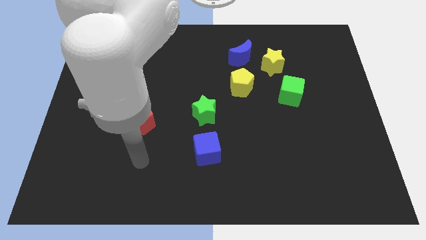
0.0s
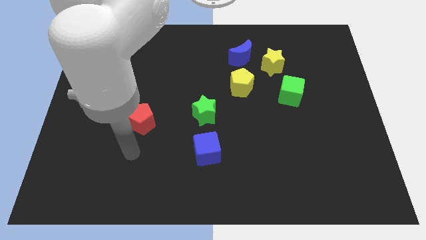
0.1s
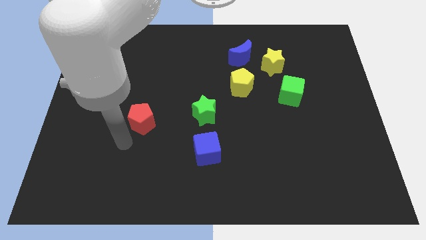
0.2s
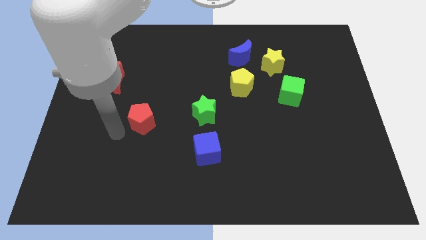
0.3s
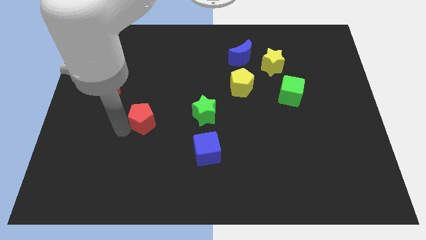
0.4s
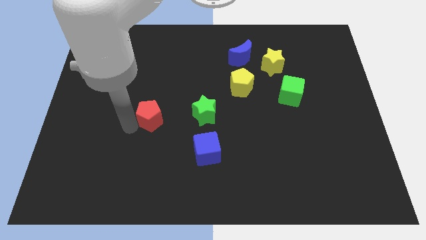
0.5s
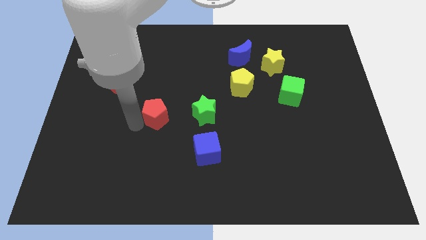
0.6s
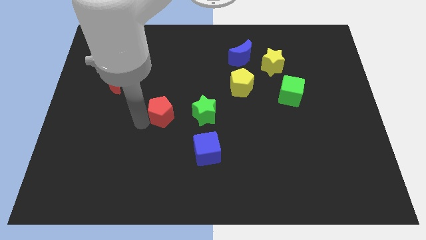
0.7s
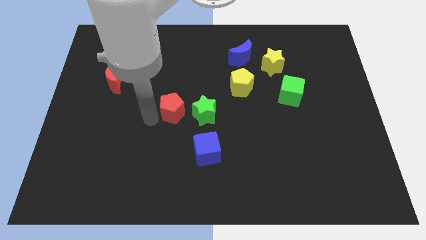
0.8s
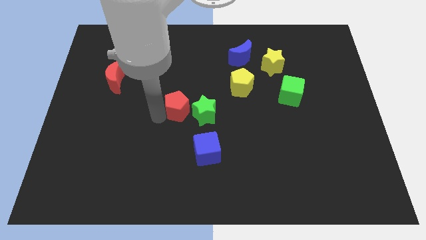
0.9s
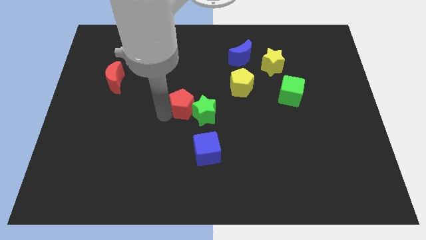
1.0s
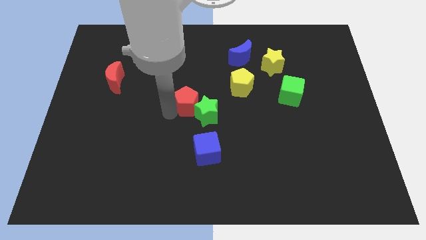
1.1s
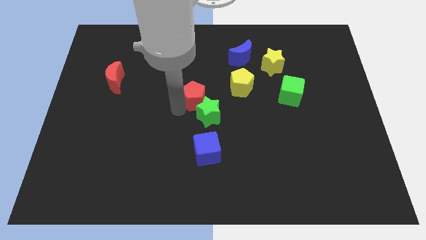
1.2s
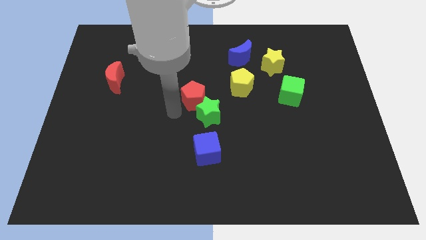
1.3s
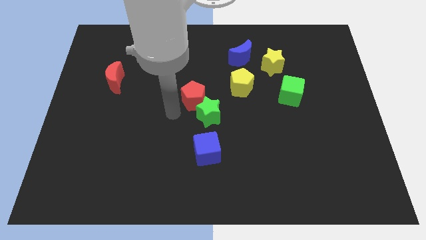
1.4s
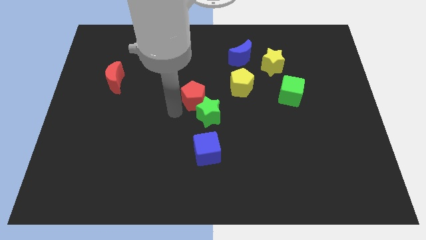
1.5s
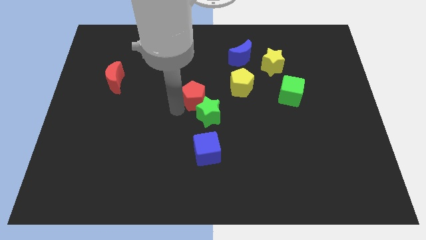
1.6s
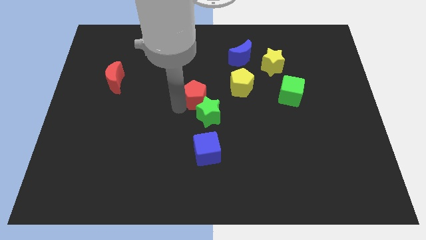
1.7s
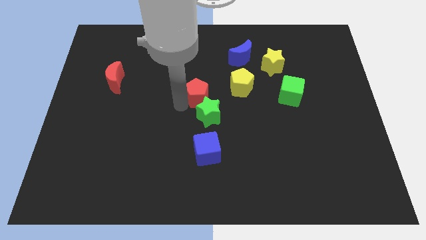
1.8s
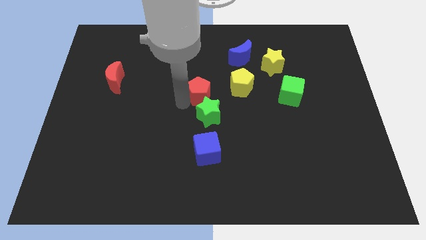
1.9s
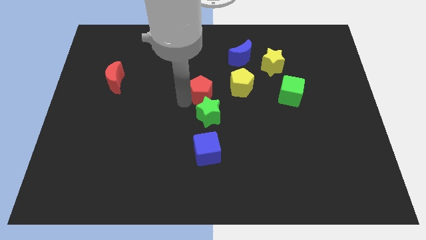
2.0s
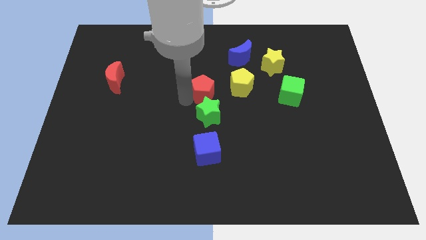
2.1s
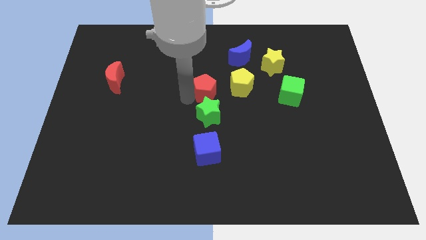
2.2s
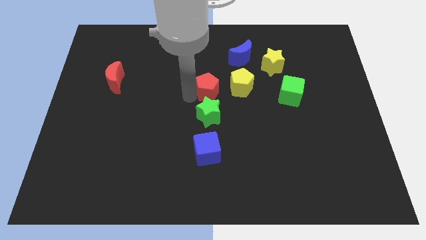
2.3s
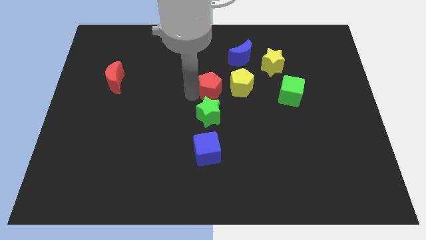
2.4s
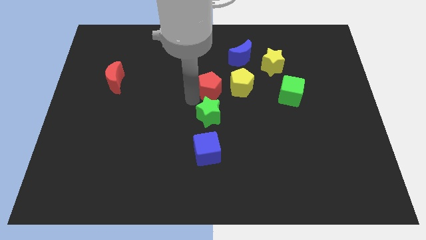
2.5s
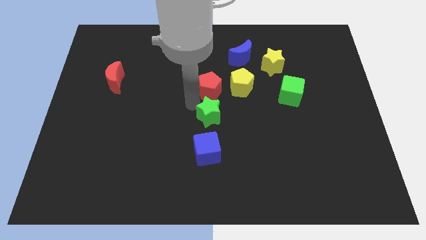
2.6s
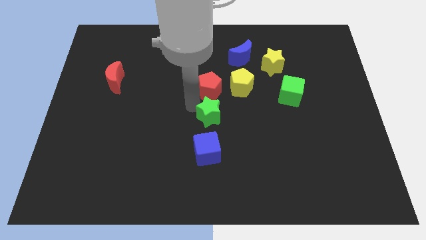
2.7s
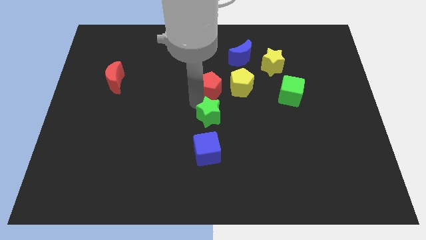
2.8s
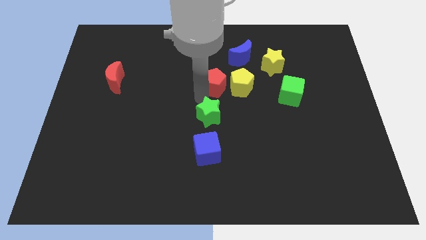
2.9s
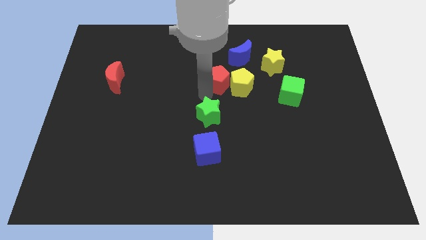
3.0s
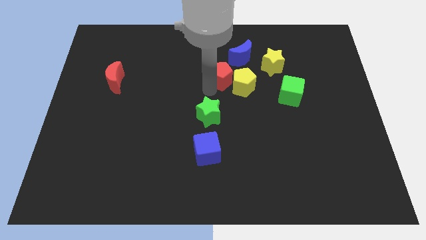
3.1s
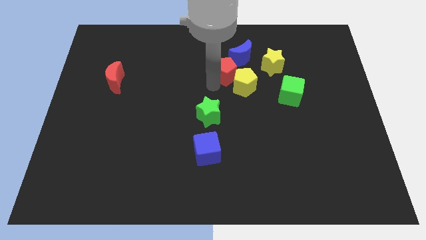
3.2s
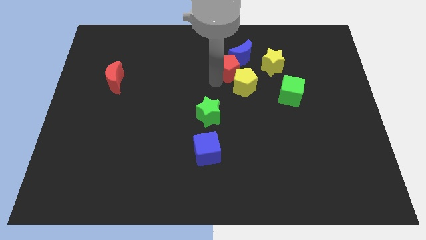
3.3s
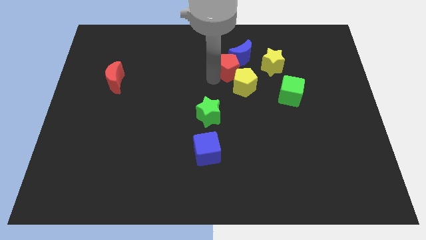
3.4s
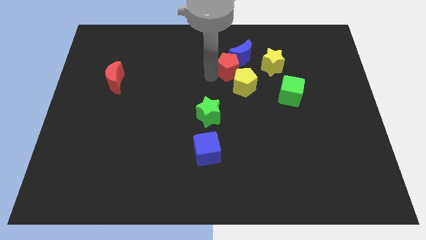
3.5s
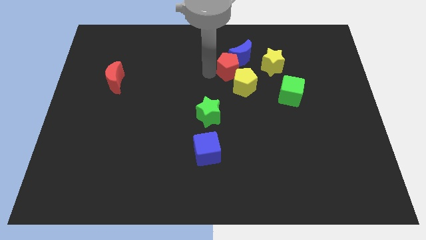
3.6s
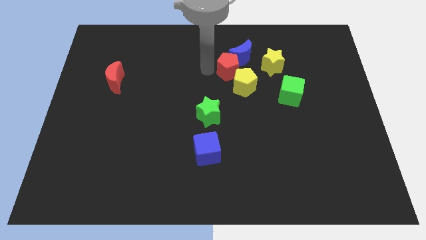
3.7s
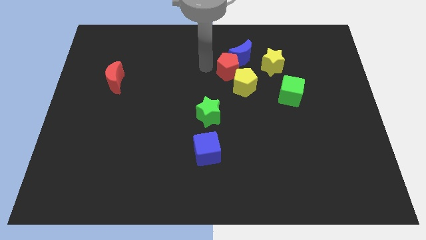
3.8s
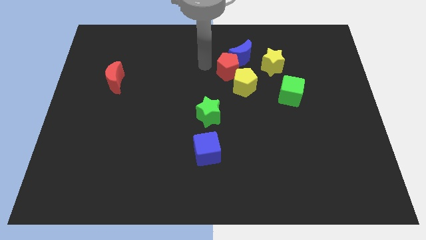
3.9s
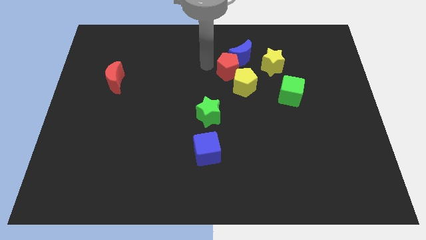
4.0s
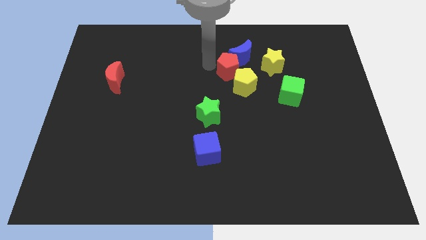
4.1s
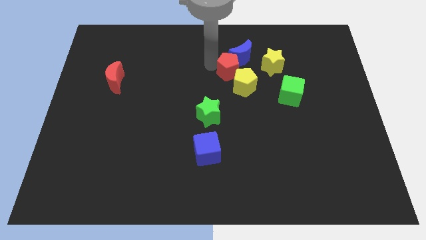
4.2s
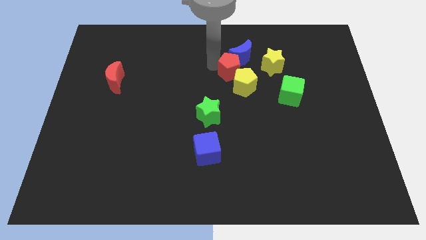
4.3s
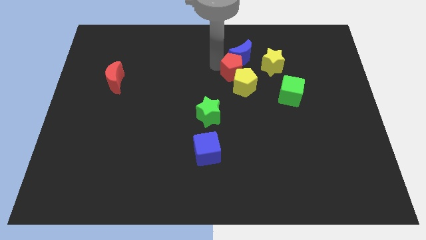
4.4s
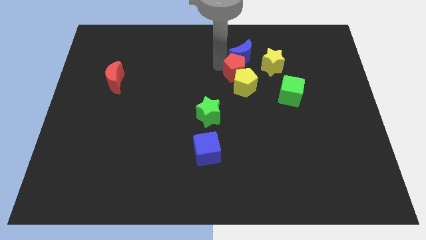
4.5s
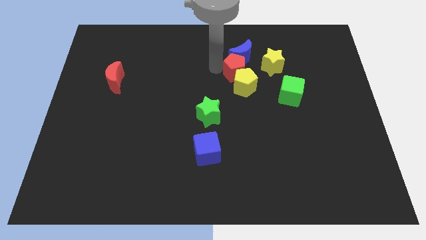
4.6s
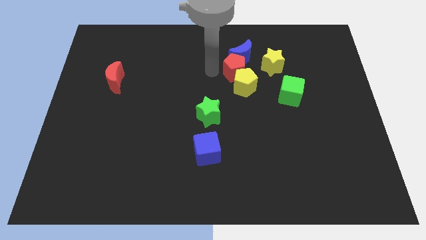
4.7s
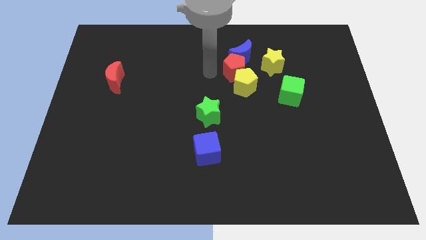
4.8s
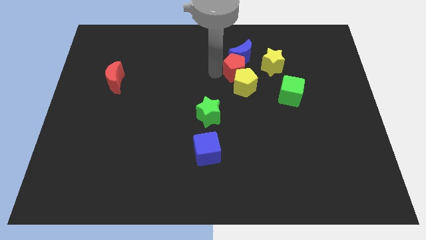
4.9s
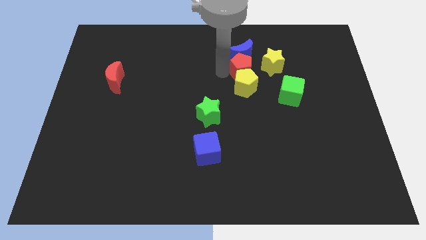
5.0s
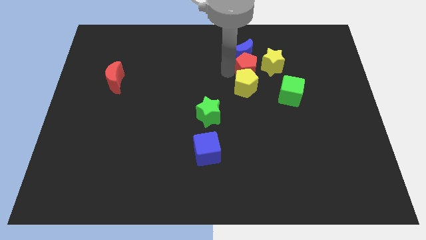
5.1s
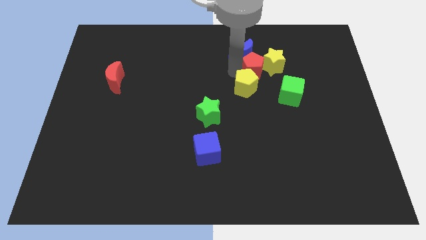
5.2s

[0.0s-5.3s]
put the red pentagon to the yellow star

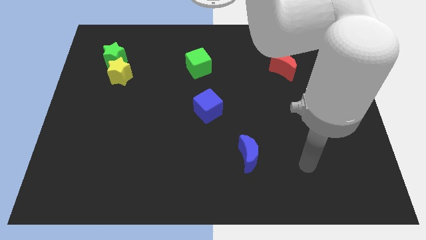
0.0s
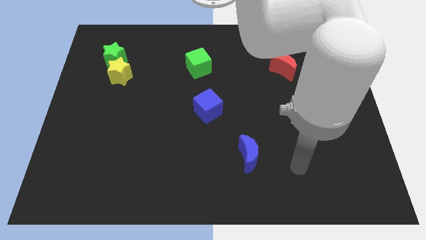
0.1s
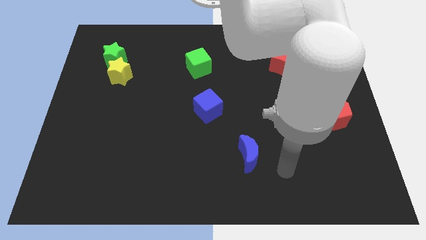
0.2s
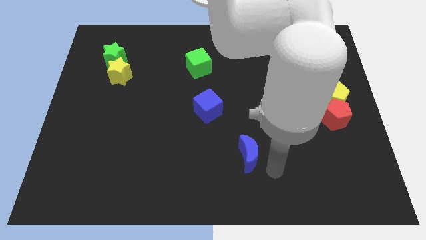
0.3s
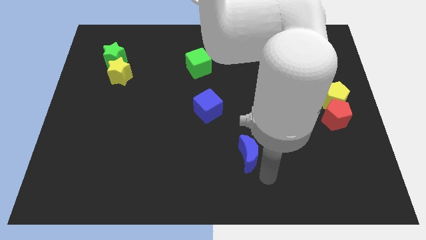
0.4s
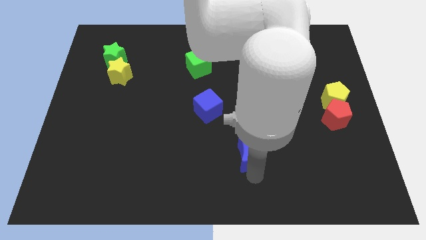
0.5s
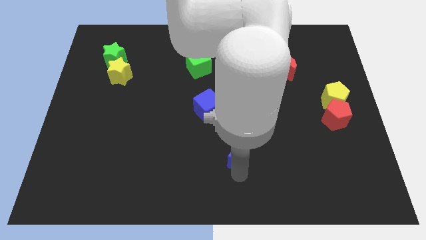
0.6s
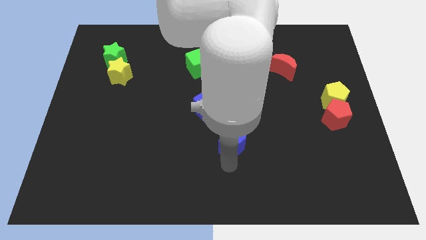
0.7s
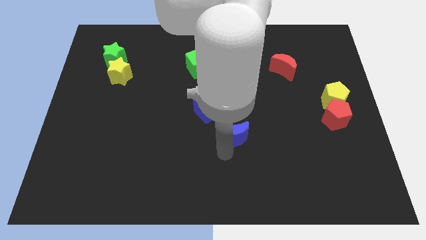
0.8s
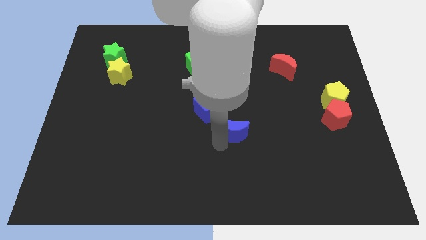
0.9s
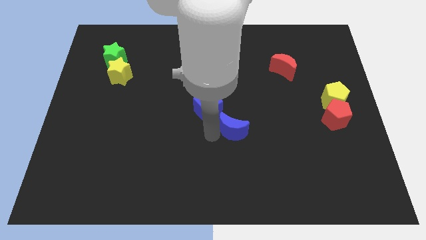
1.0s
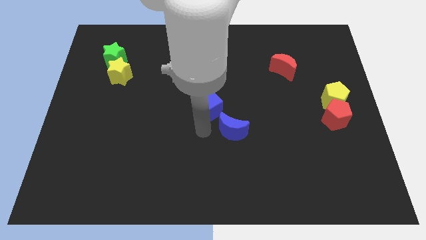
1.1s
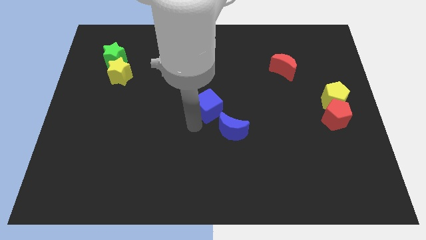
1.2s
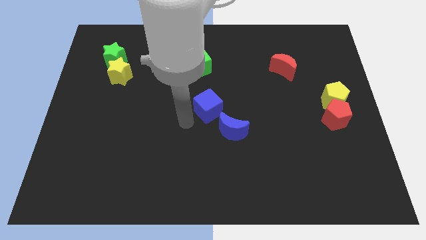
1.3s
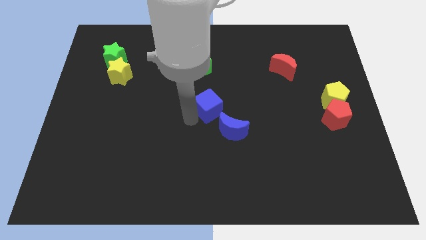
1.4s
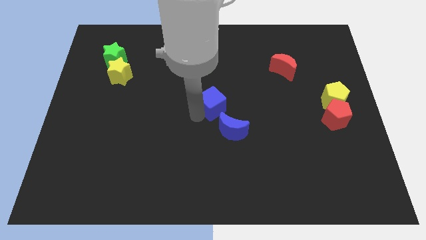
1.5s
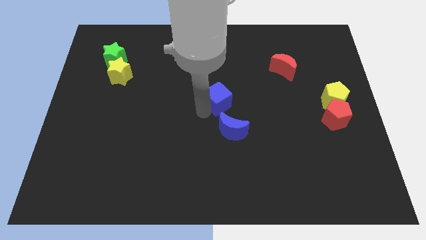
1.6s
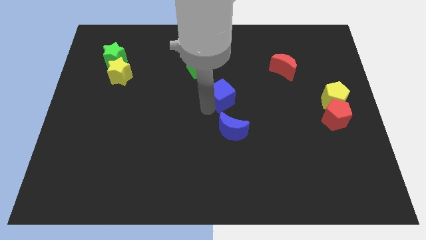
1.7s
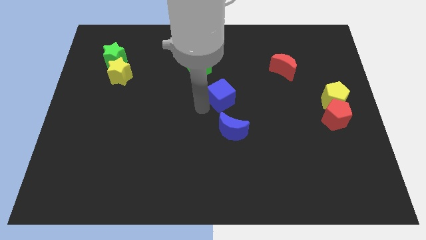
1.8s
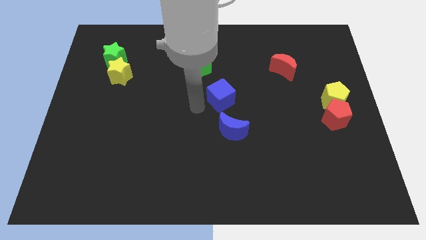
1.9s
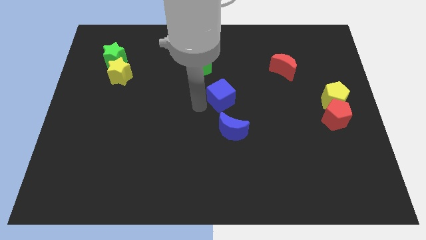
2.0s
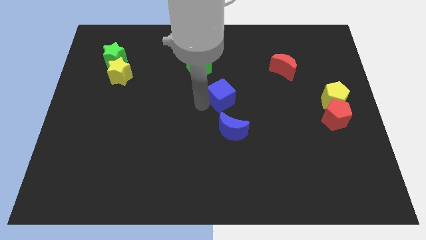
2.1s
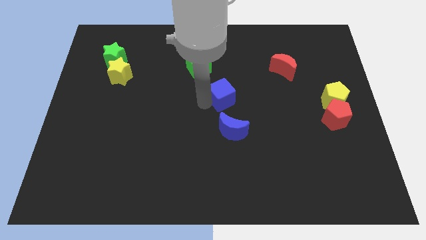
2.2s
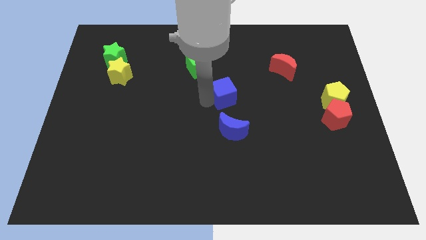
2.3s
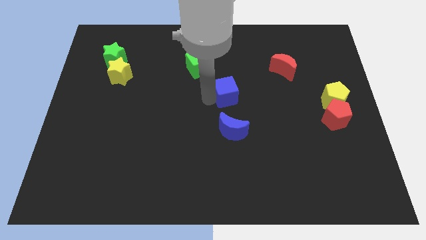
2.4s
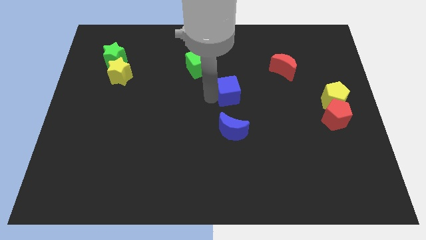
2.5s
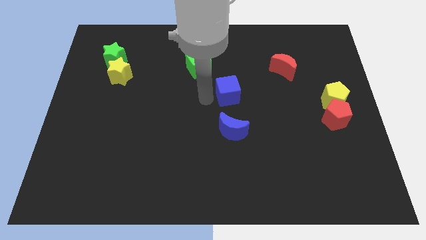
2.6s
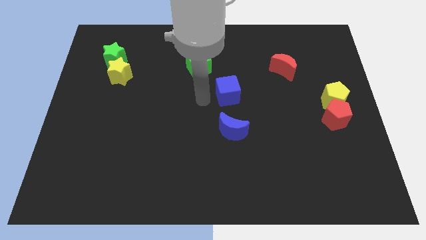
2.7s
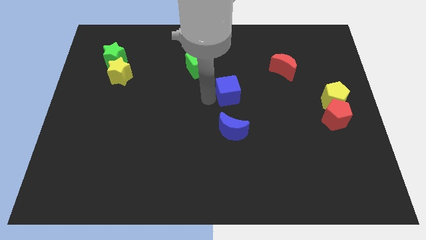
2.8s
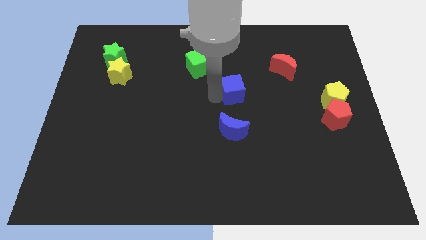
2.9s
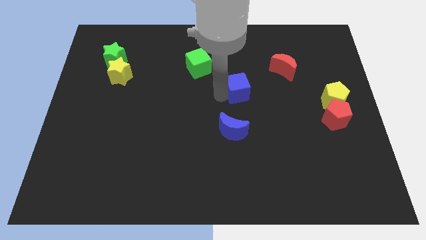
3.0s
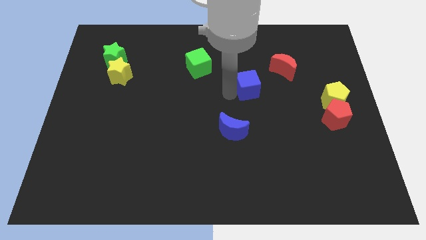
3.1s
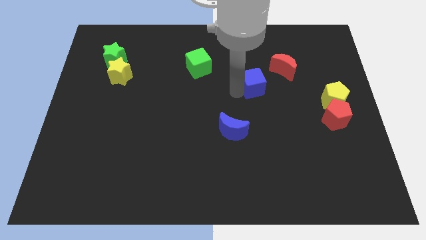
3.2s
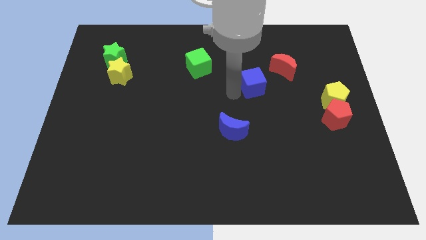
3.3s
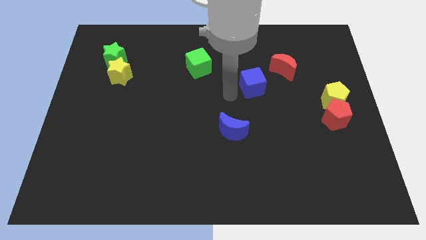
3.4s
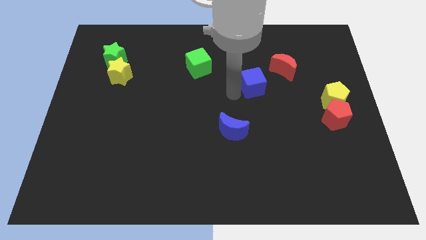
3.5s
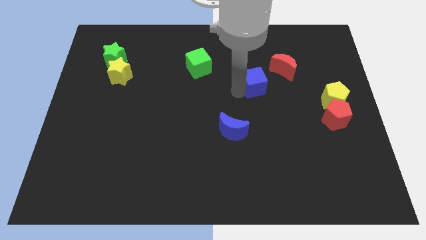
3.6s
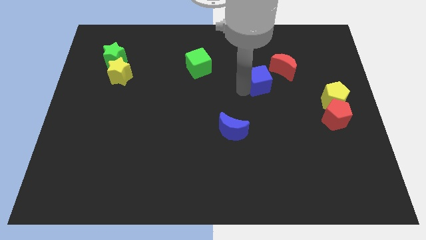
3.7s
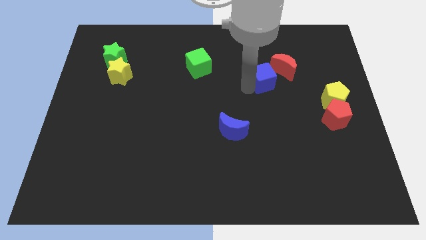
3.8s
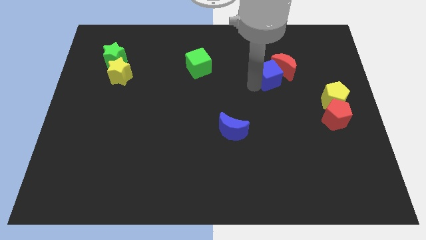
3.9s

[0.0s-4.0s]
put the blue cube next to the red moon
